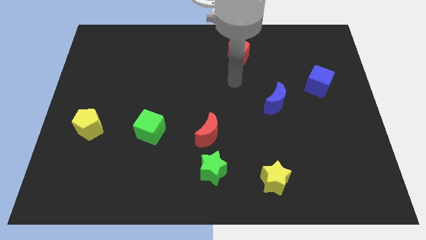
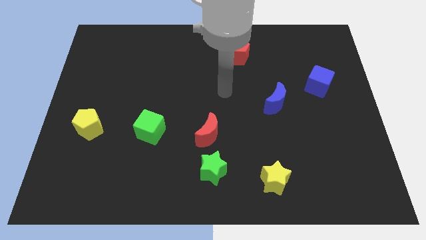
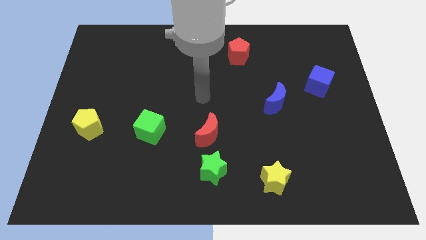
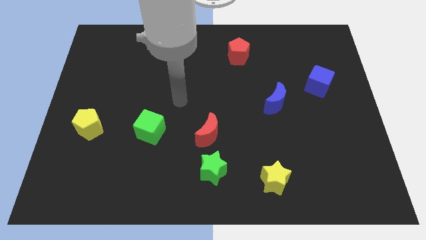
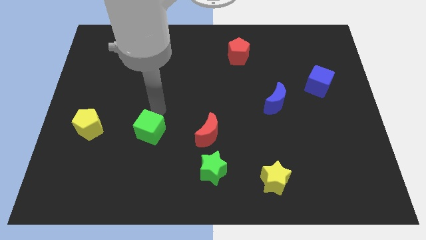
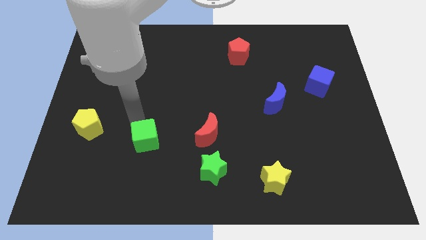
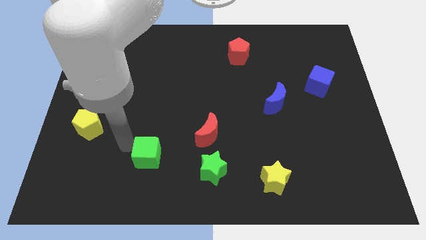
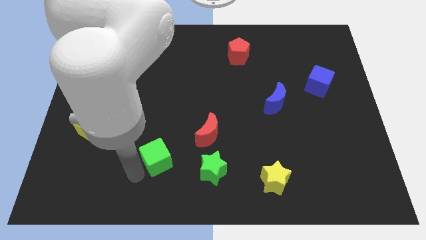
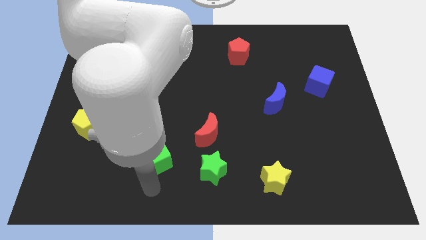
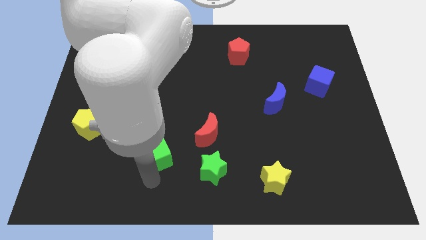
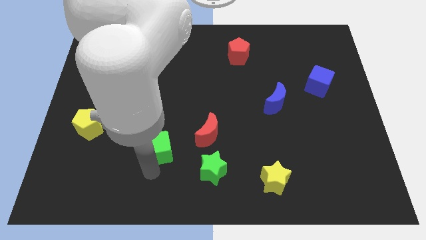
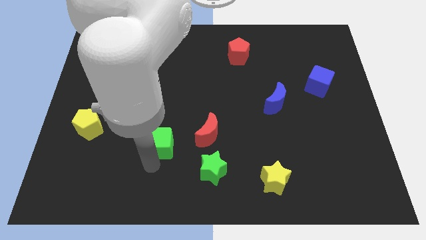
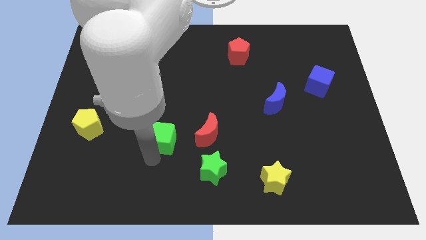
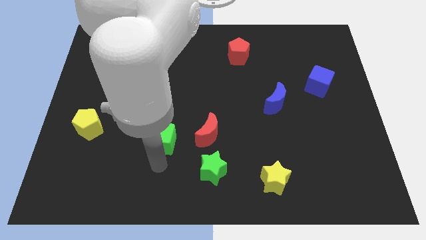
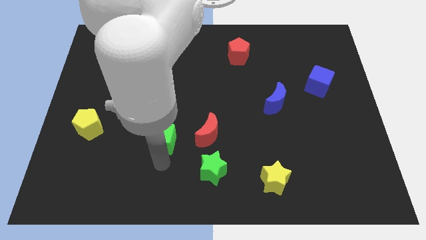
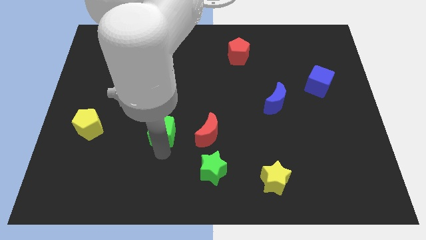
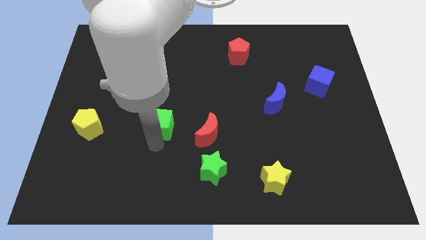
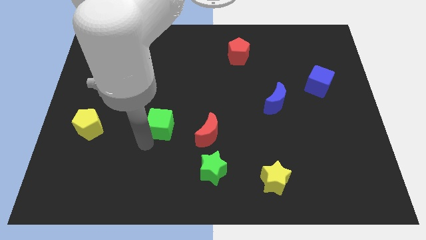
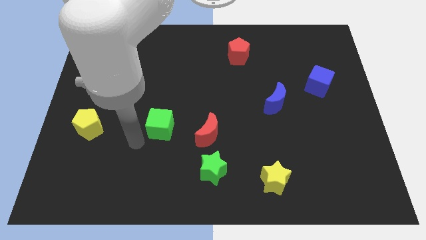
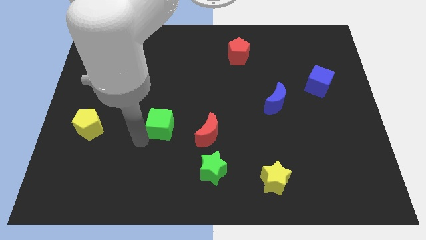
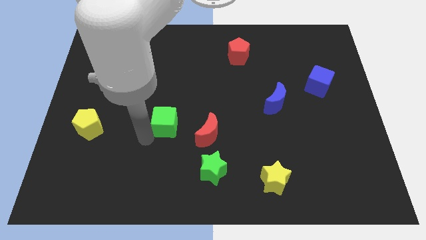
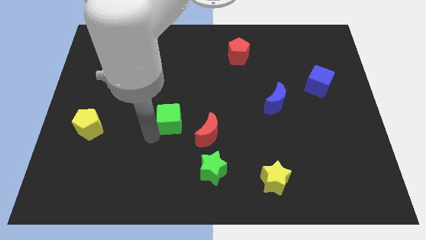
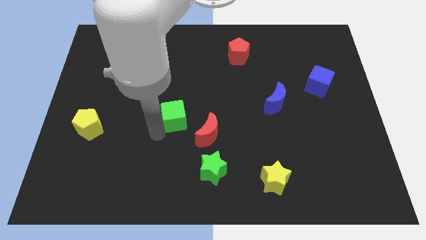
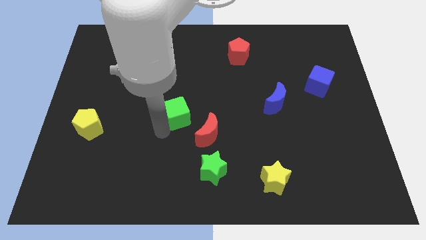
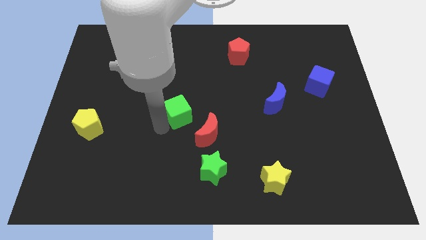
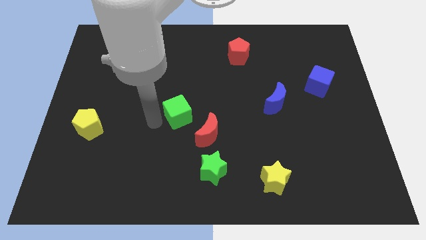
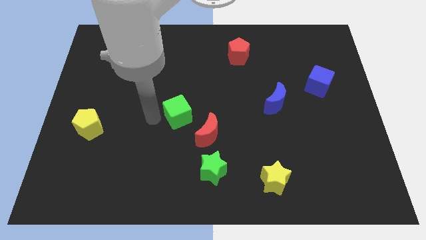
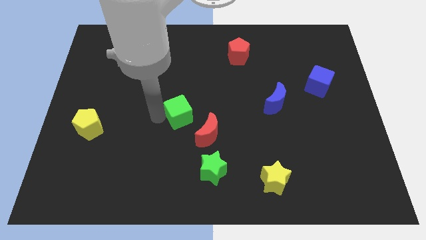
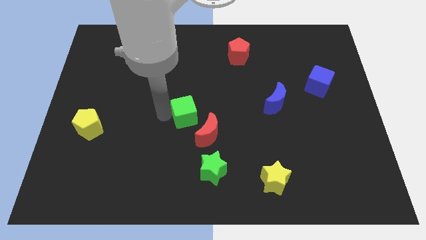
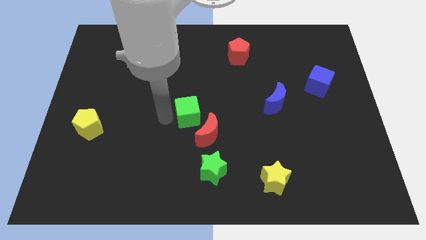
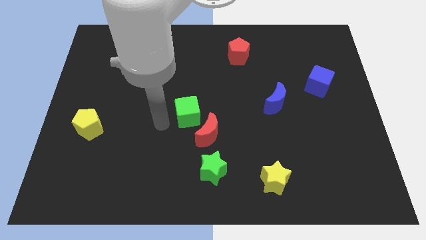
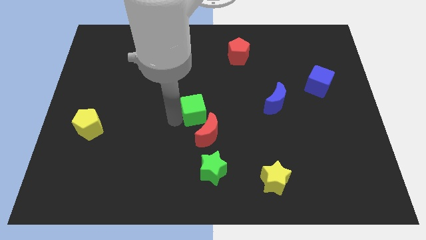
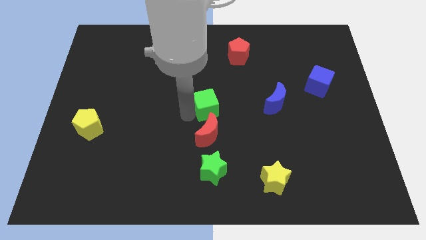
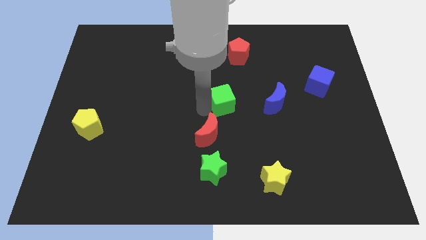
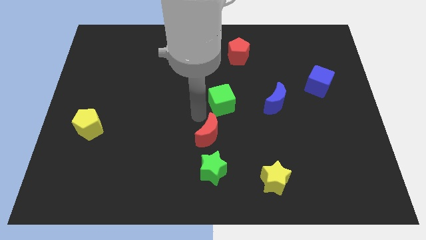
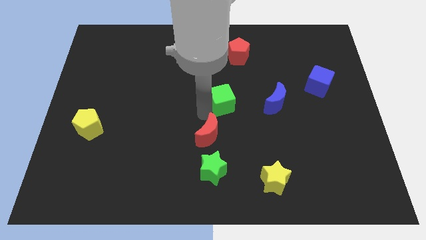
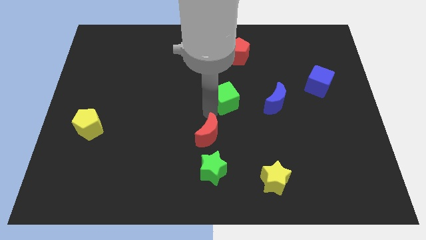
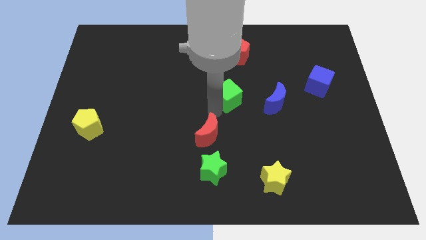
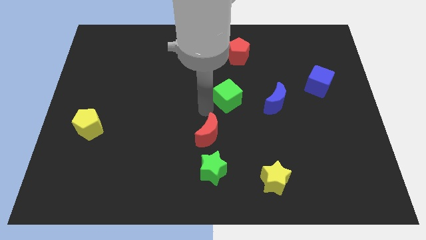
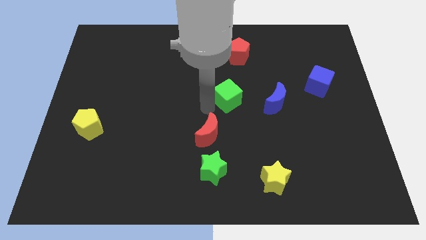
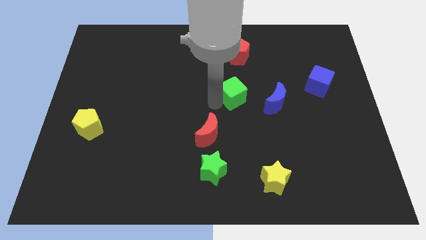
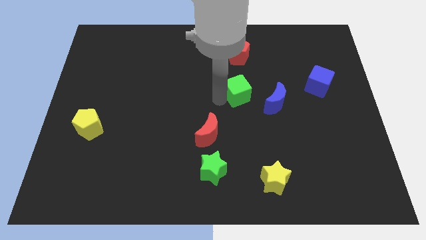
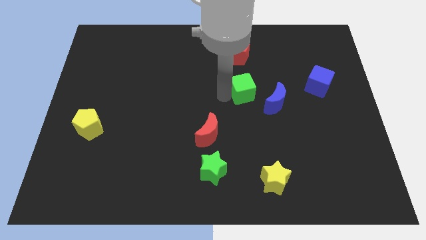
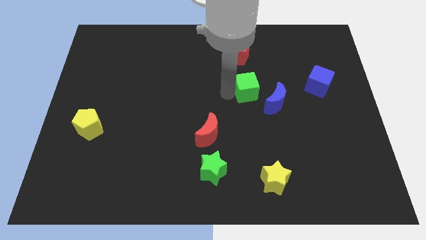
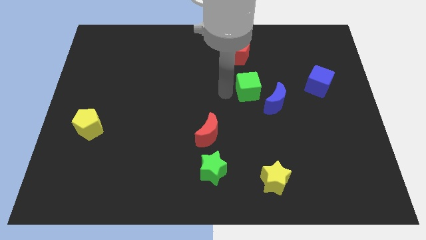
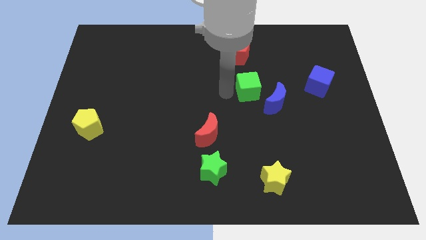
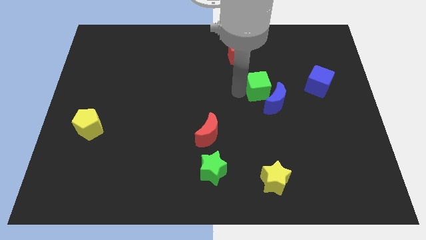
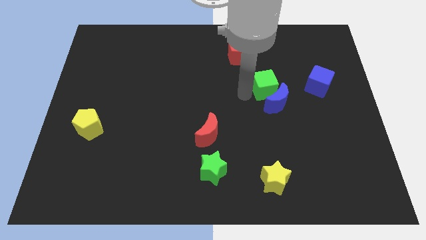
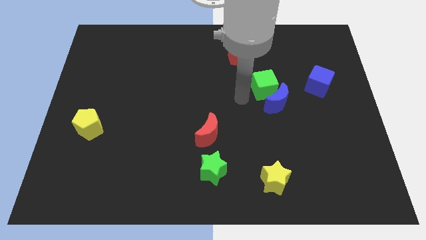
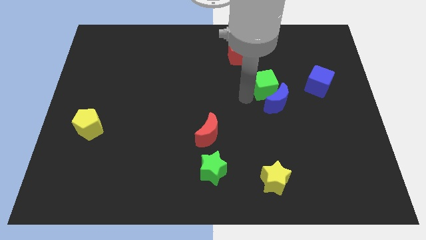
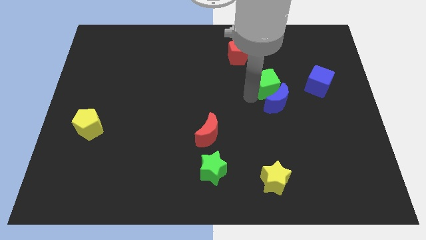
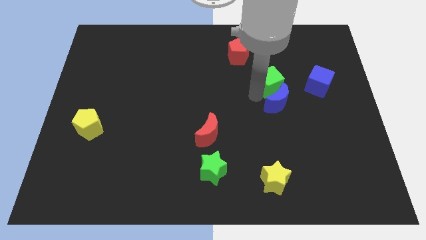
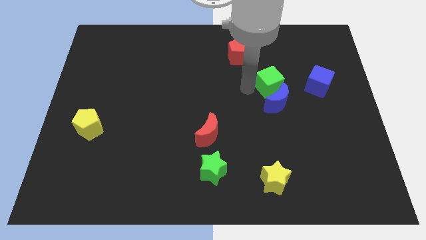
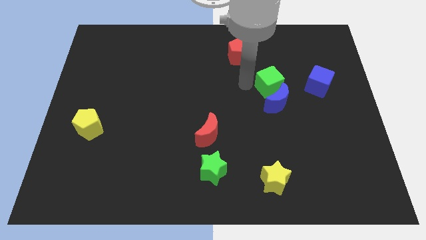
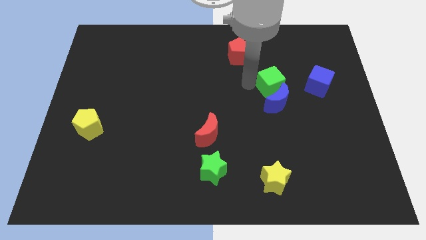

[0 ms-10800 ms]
put the green cube to the top right side of the blue moon

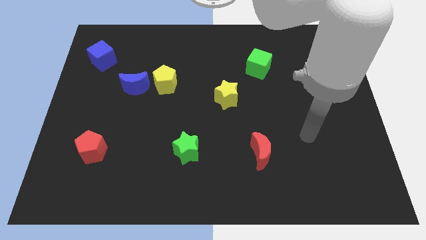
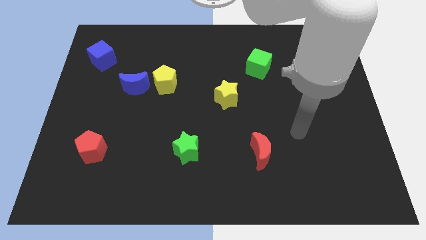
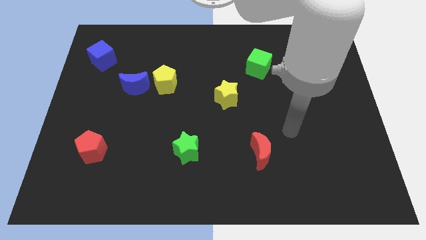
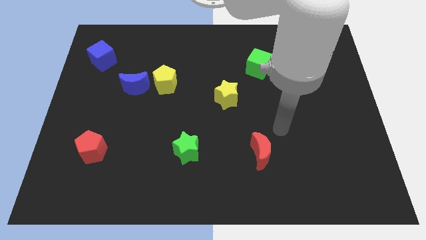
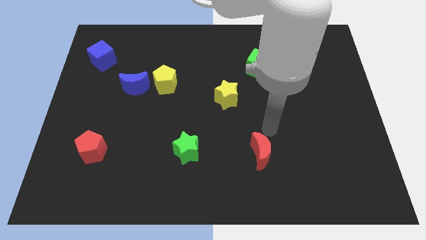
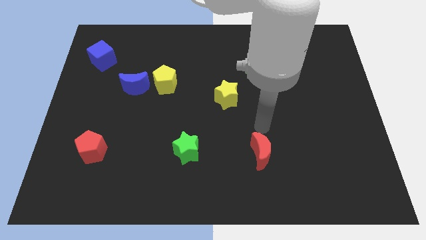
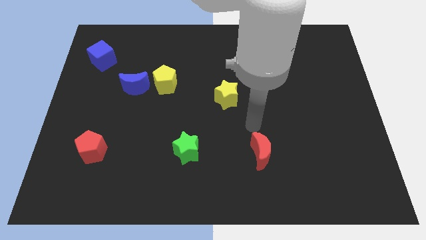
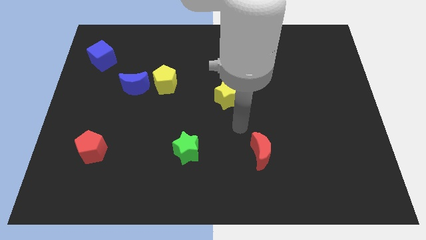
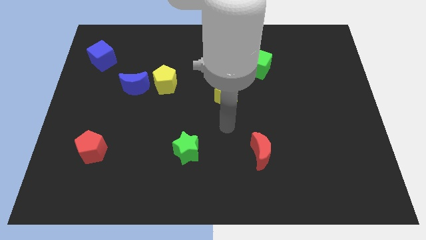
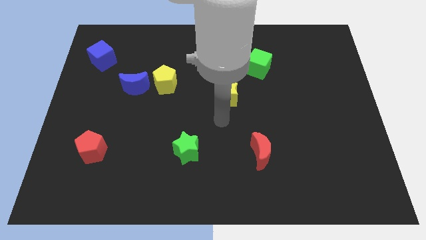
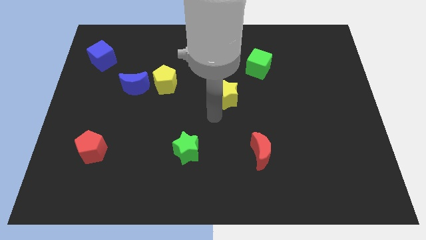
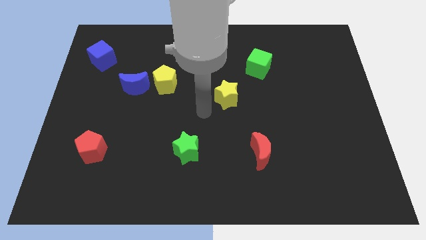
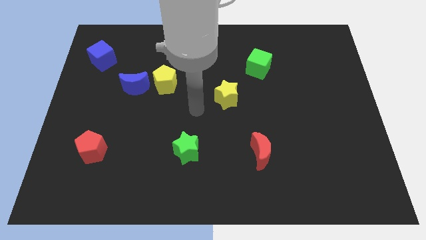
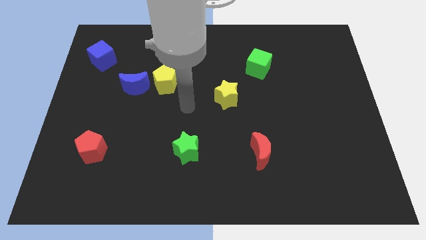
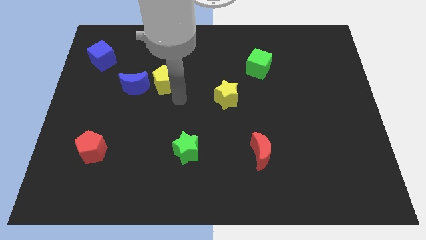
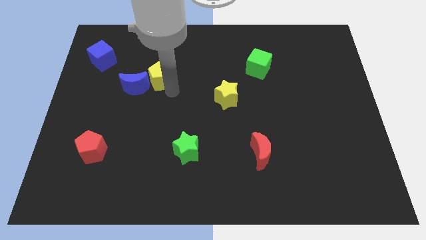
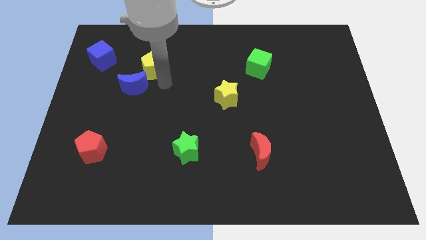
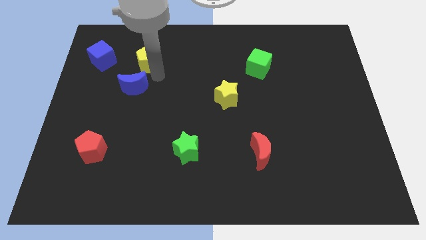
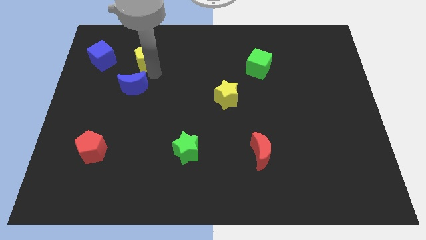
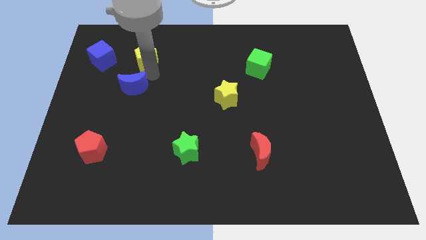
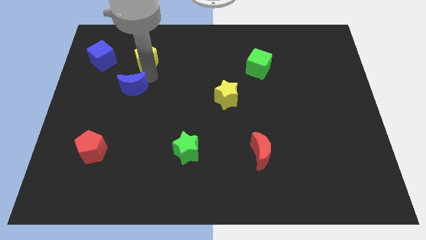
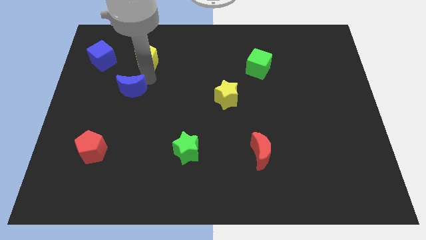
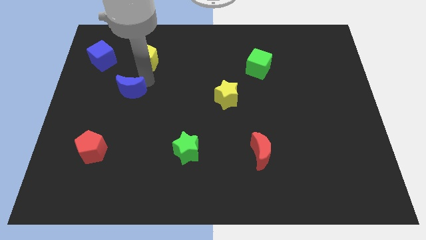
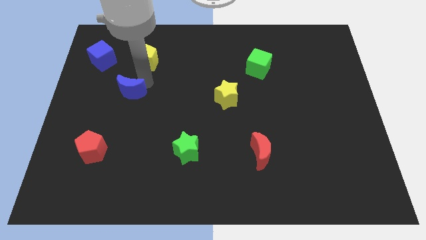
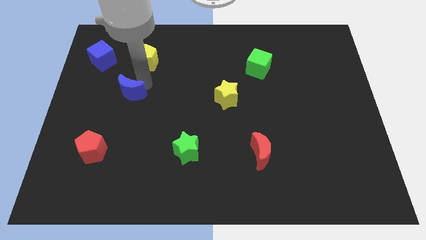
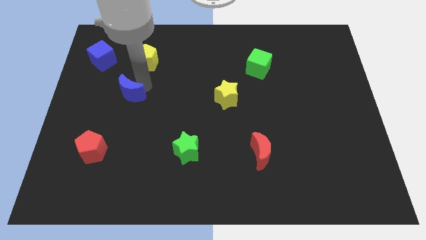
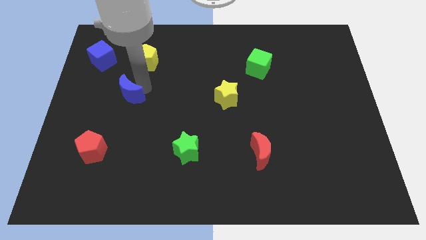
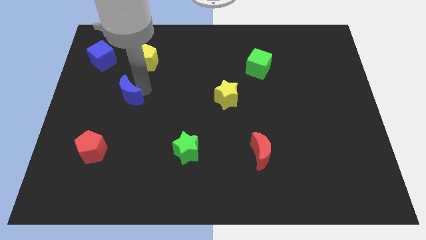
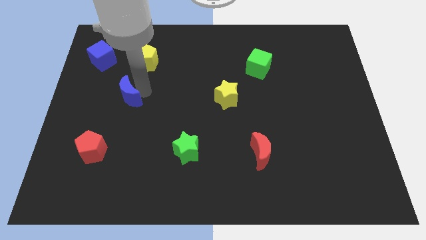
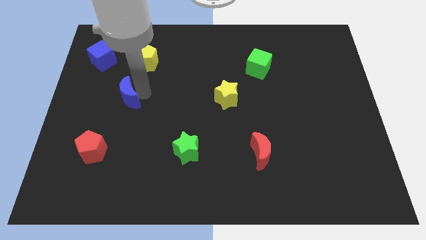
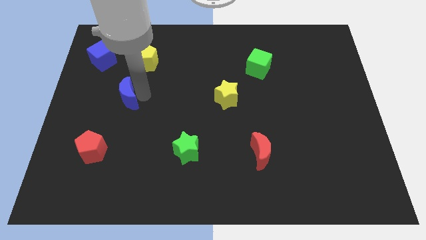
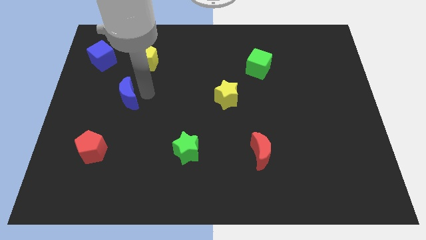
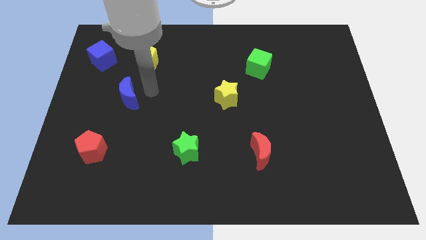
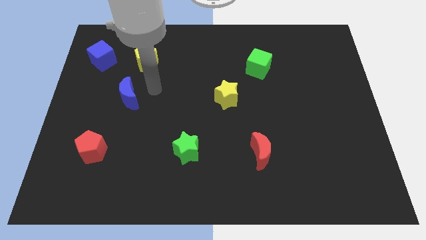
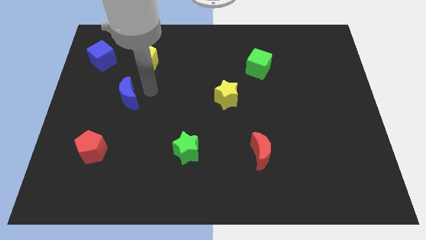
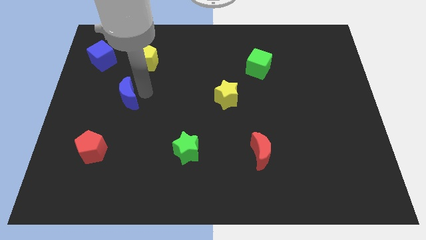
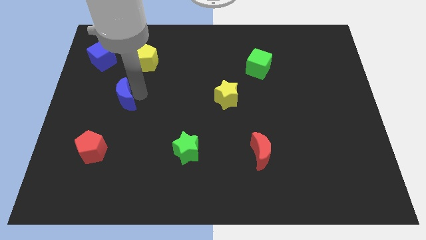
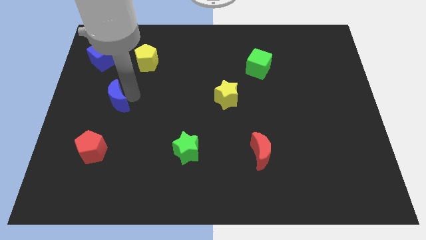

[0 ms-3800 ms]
move the blue moon to the top side of the red pentagon
